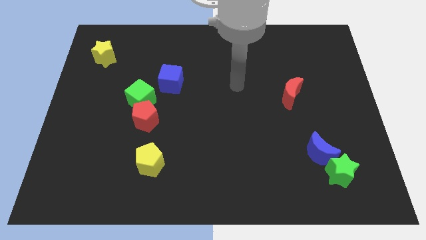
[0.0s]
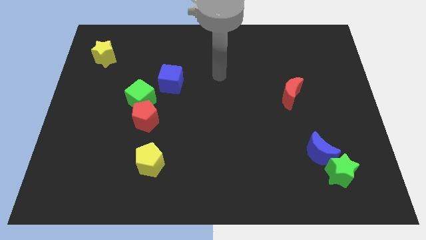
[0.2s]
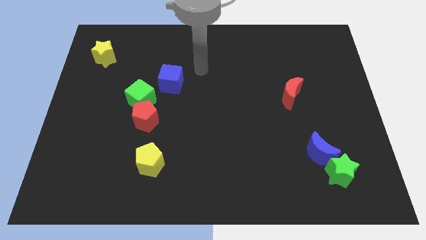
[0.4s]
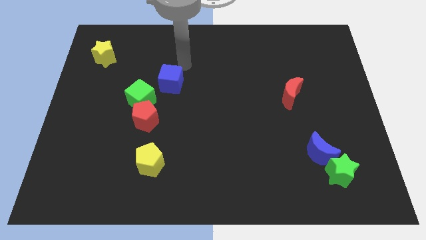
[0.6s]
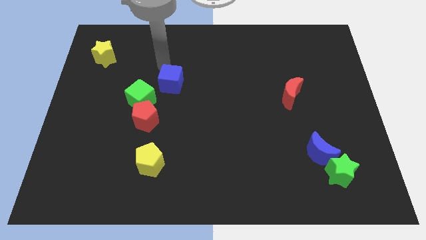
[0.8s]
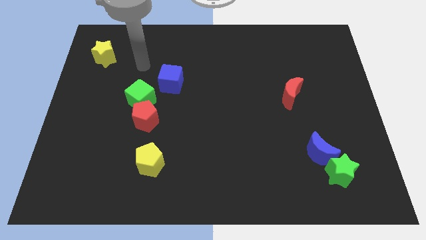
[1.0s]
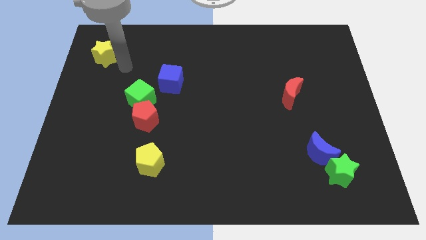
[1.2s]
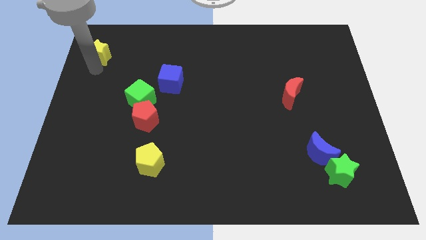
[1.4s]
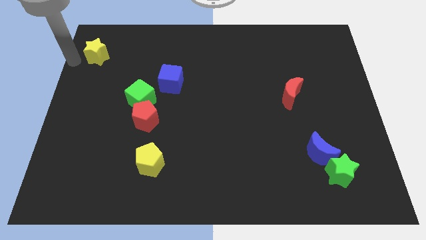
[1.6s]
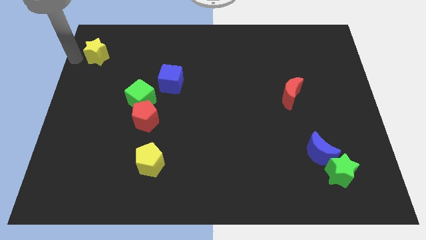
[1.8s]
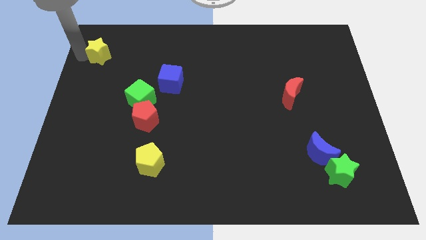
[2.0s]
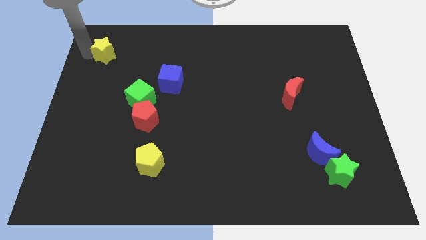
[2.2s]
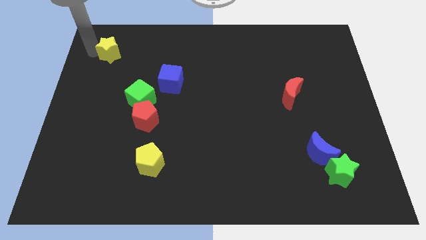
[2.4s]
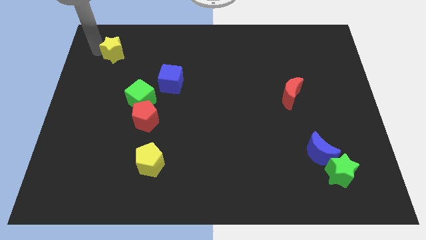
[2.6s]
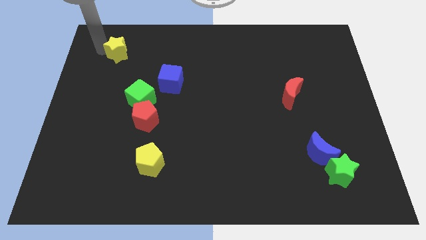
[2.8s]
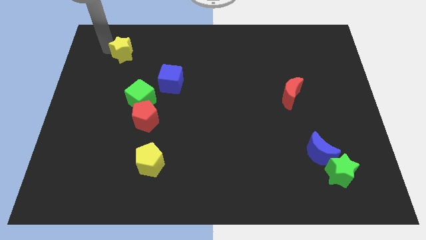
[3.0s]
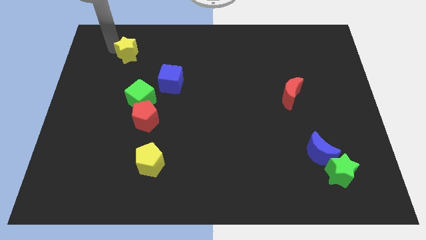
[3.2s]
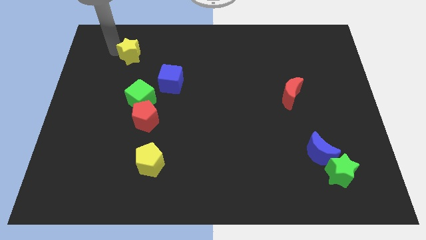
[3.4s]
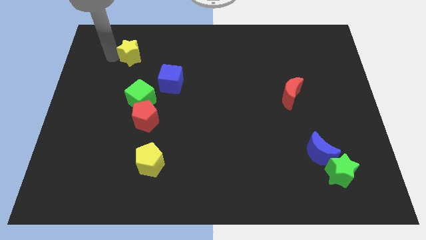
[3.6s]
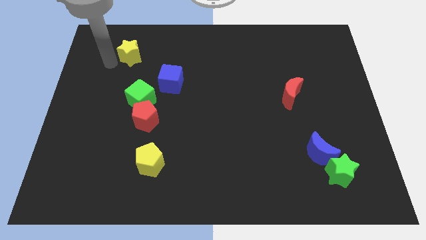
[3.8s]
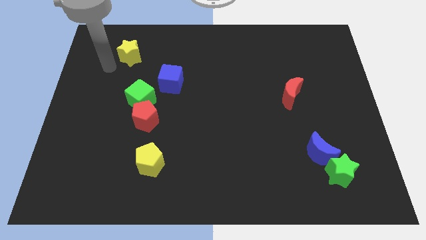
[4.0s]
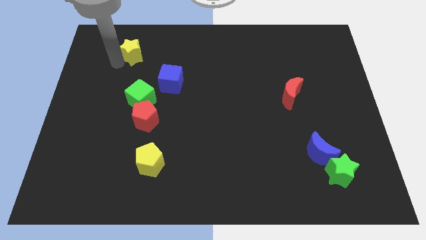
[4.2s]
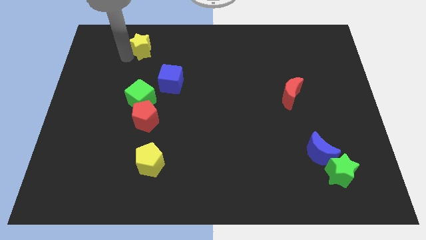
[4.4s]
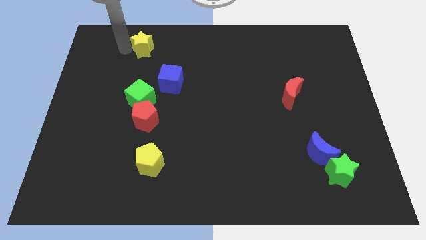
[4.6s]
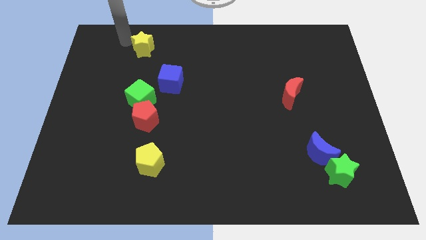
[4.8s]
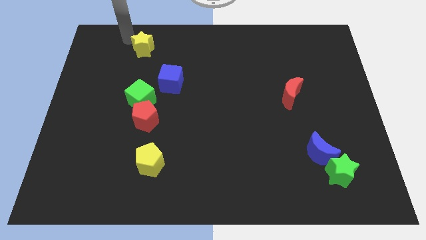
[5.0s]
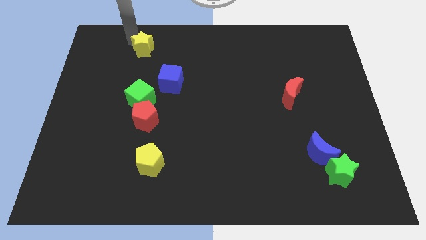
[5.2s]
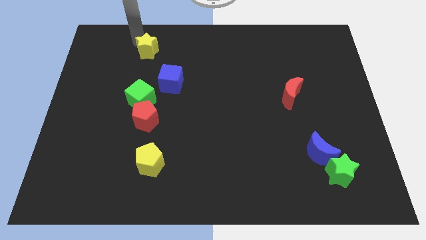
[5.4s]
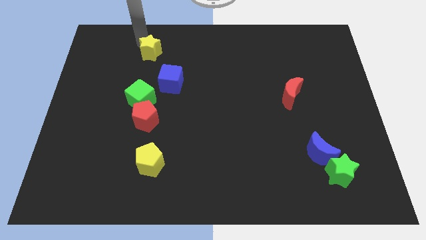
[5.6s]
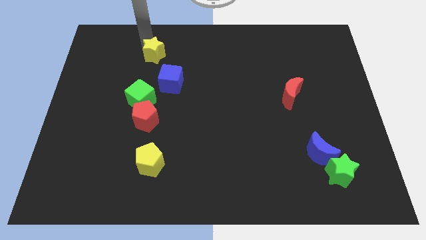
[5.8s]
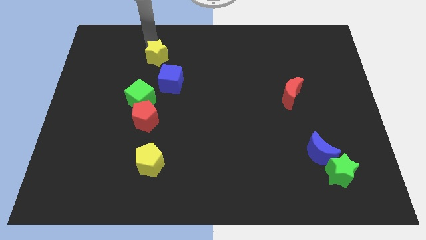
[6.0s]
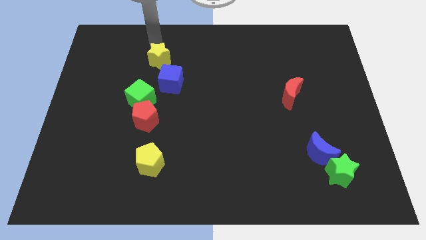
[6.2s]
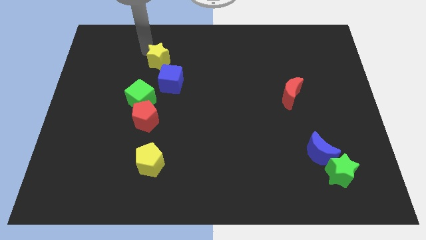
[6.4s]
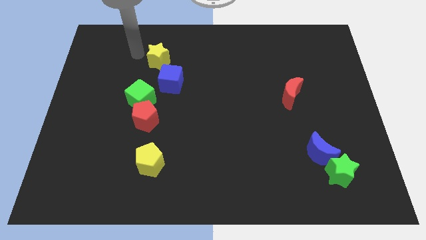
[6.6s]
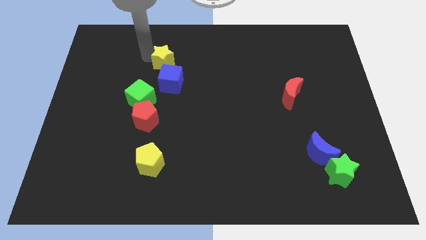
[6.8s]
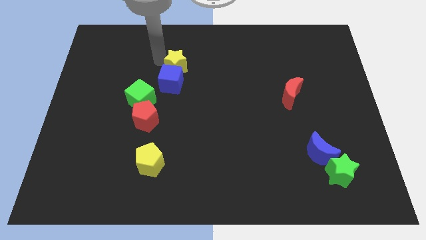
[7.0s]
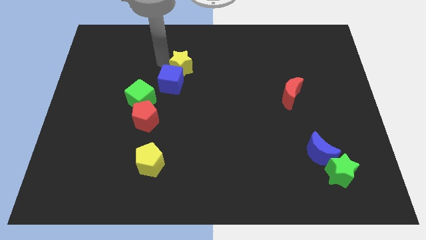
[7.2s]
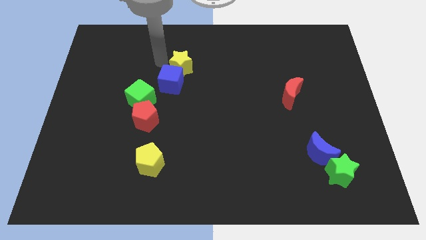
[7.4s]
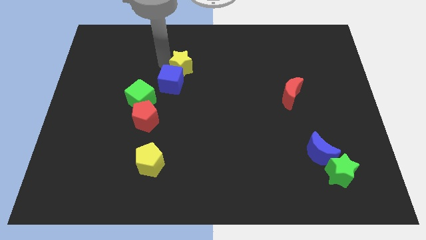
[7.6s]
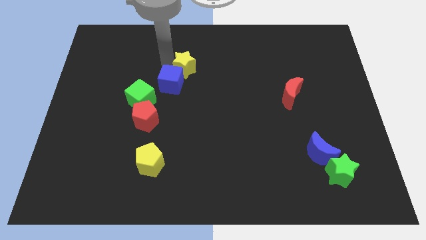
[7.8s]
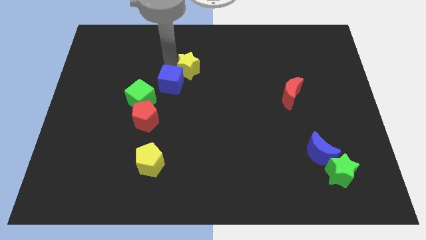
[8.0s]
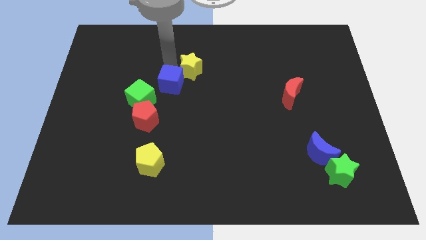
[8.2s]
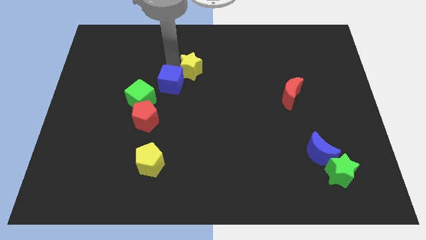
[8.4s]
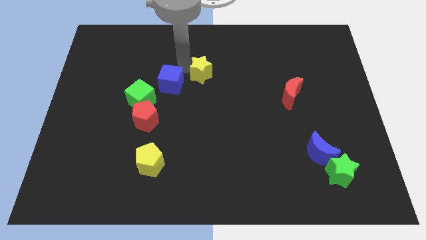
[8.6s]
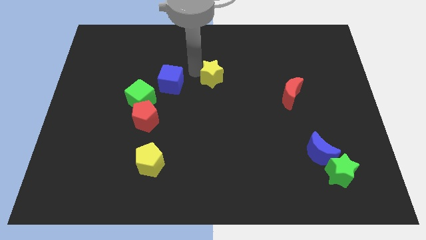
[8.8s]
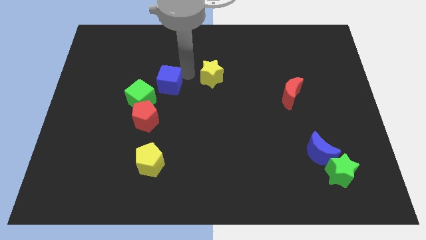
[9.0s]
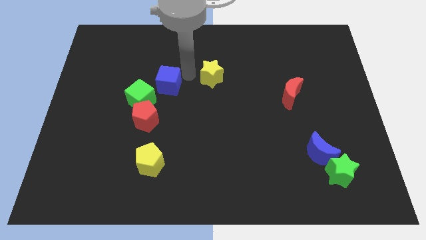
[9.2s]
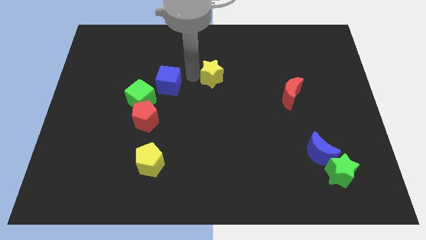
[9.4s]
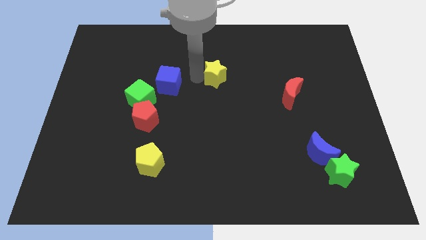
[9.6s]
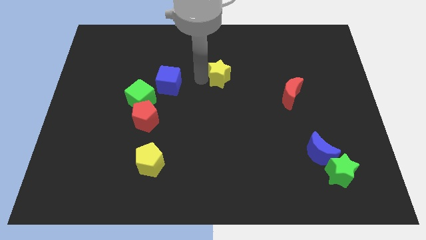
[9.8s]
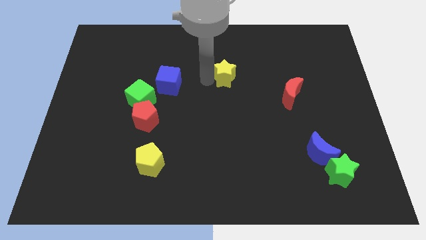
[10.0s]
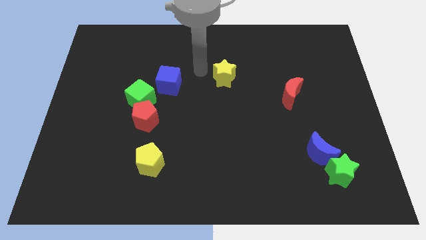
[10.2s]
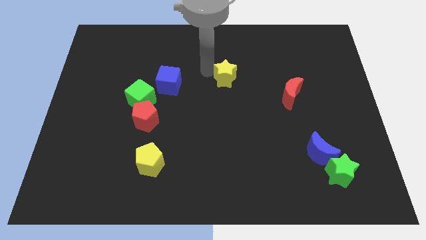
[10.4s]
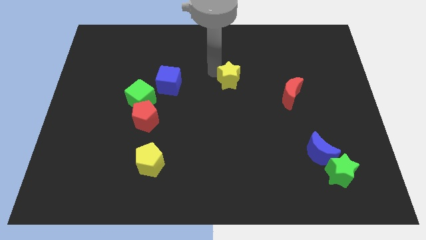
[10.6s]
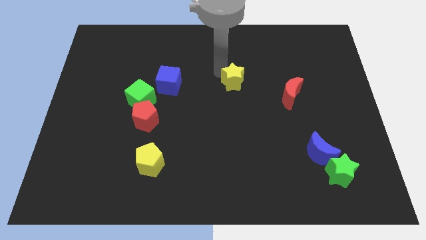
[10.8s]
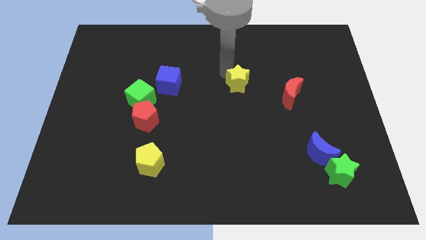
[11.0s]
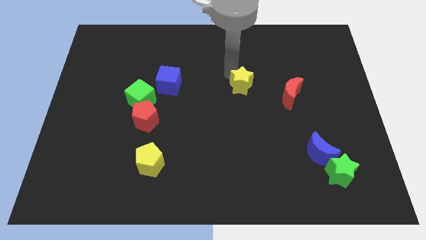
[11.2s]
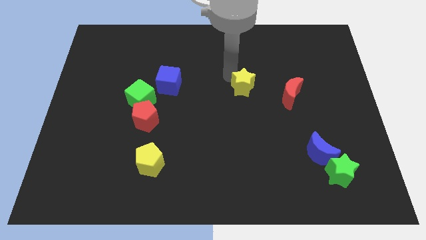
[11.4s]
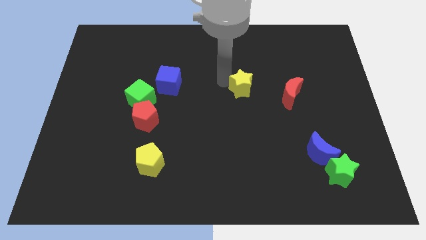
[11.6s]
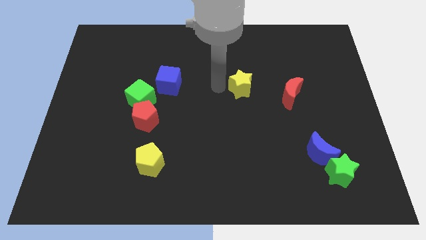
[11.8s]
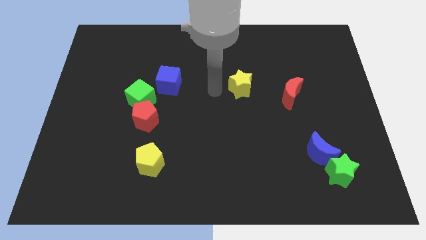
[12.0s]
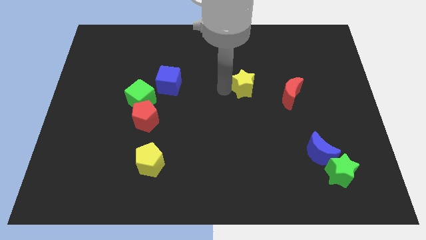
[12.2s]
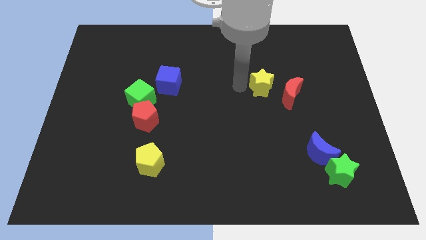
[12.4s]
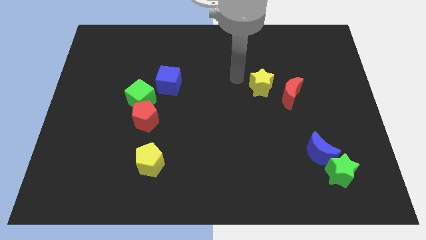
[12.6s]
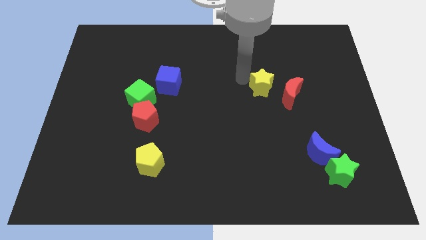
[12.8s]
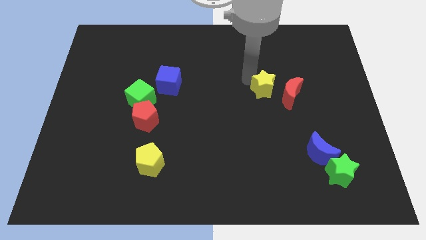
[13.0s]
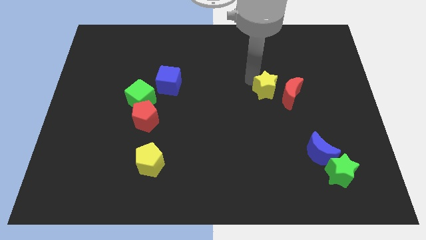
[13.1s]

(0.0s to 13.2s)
push the yellow star to the red moon

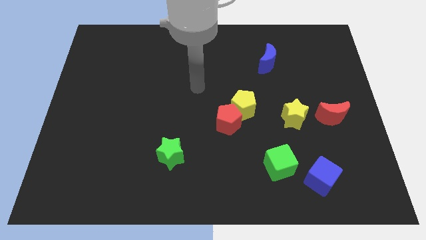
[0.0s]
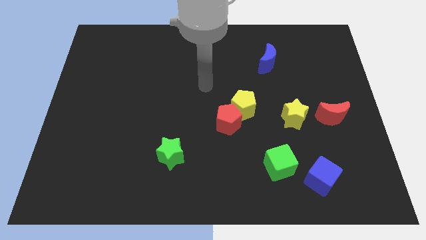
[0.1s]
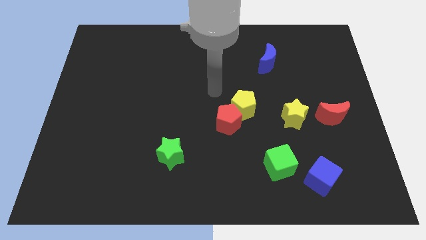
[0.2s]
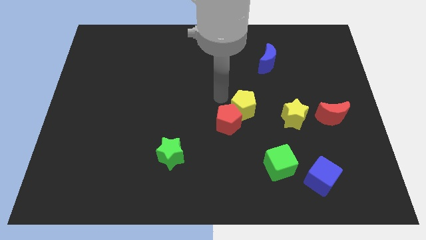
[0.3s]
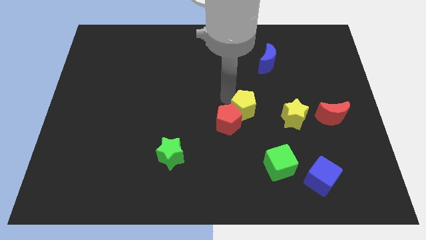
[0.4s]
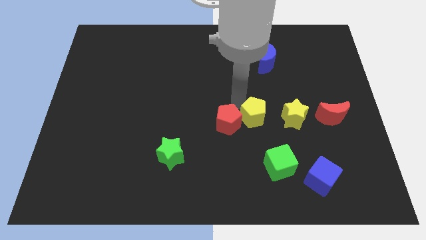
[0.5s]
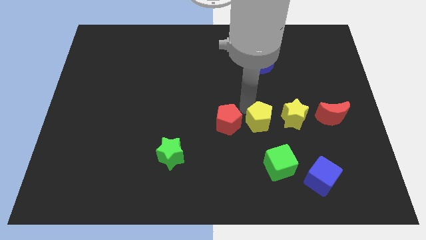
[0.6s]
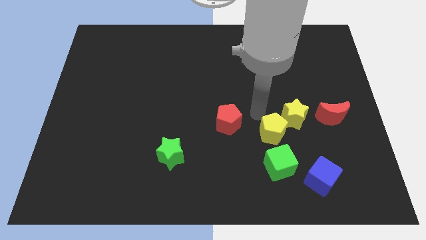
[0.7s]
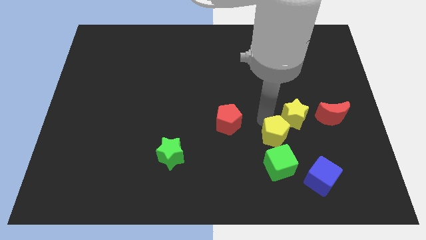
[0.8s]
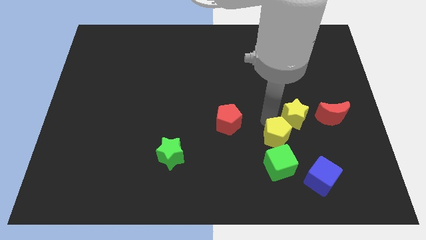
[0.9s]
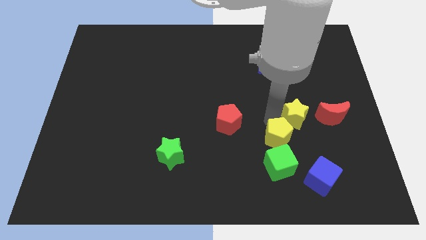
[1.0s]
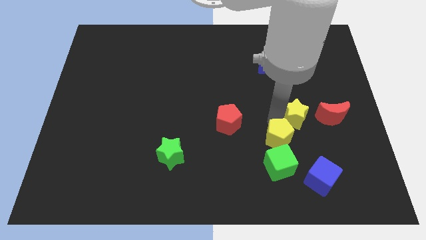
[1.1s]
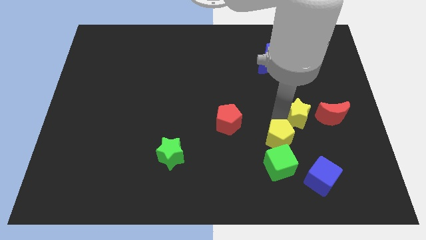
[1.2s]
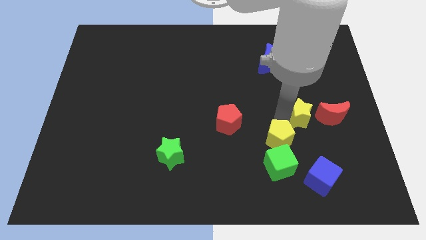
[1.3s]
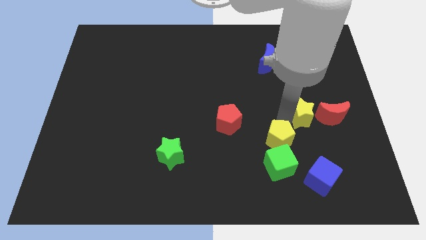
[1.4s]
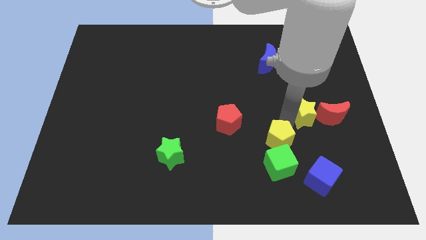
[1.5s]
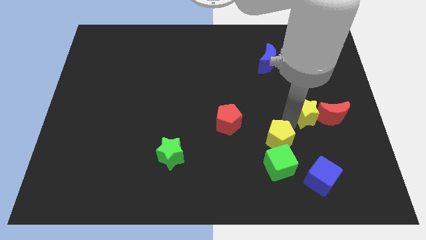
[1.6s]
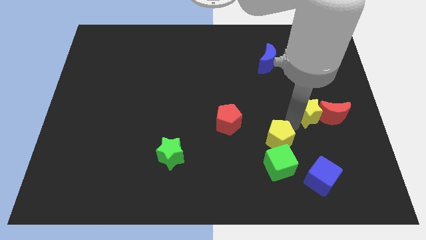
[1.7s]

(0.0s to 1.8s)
put the yellow star close to the red moon
